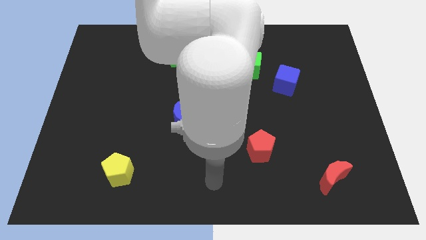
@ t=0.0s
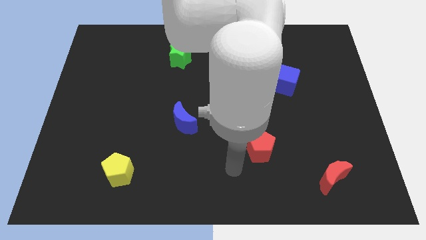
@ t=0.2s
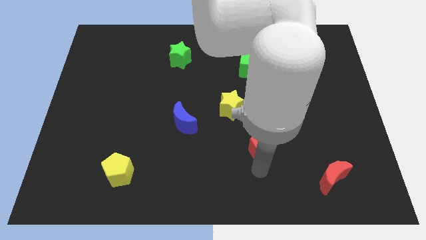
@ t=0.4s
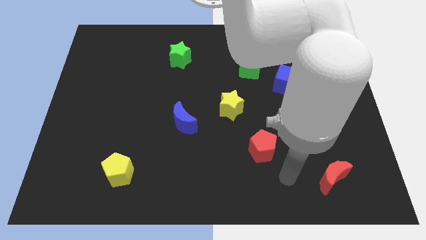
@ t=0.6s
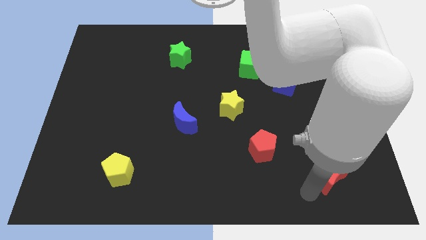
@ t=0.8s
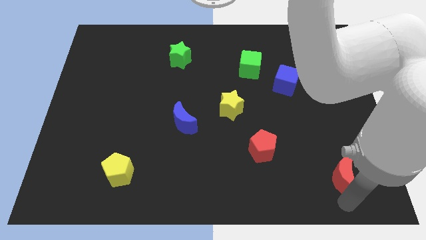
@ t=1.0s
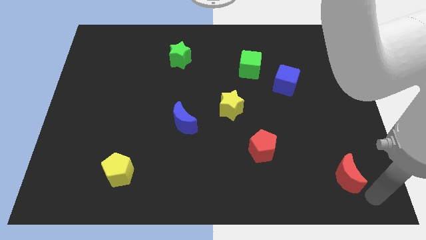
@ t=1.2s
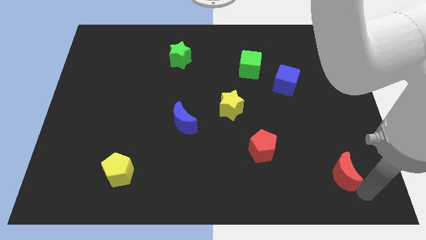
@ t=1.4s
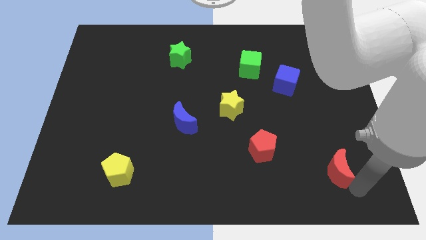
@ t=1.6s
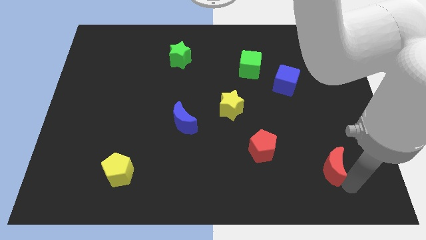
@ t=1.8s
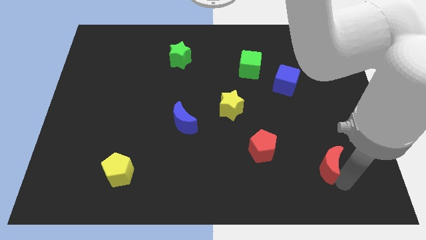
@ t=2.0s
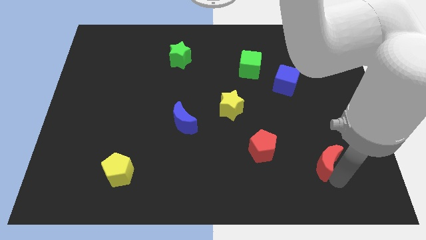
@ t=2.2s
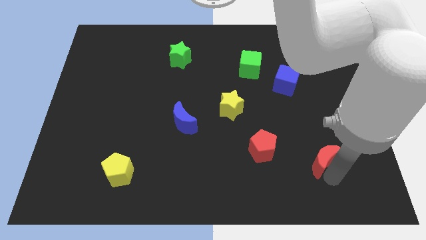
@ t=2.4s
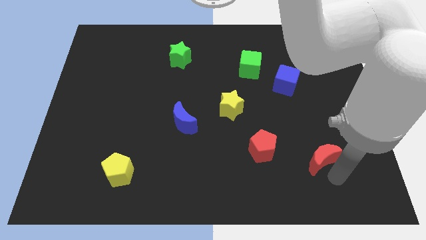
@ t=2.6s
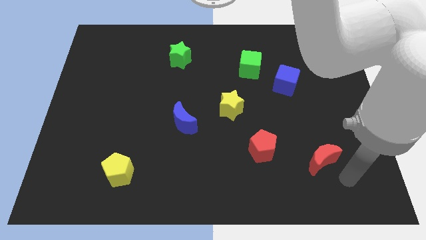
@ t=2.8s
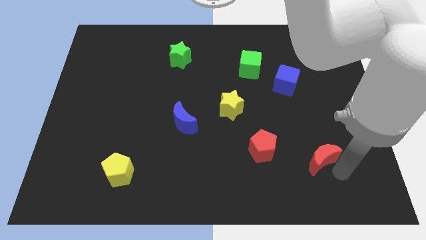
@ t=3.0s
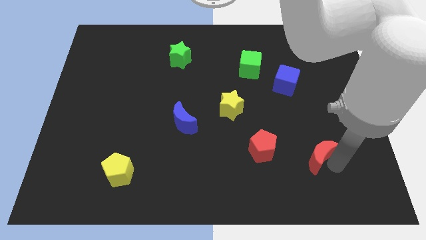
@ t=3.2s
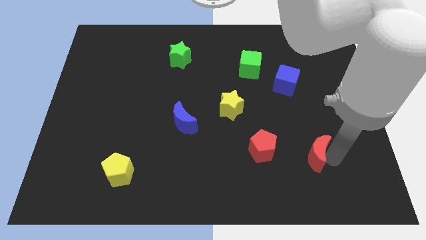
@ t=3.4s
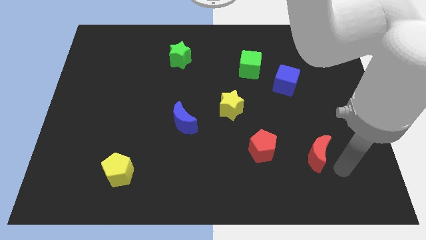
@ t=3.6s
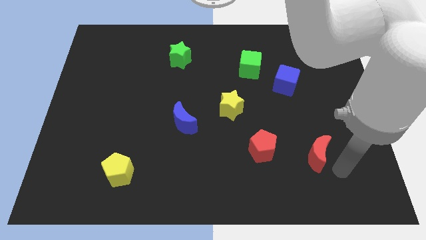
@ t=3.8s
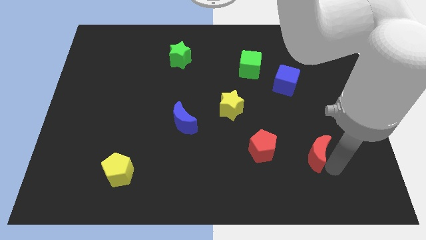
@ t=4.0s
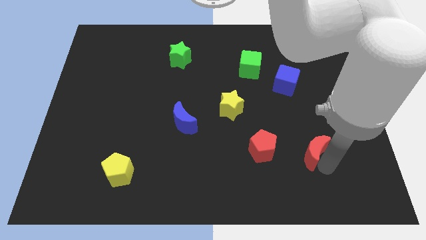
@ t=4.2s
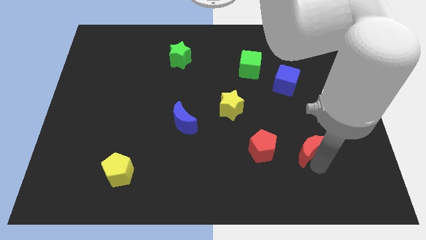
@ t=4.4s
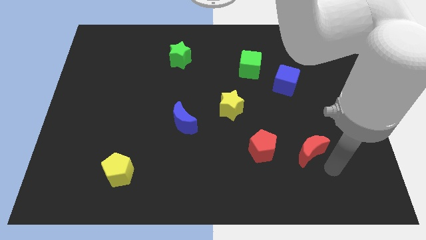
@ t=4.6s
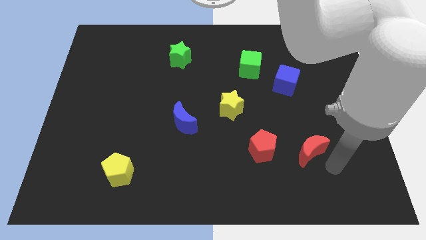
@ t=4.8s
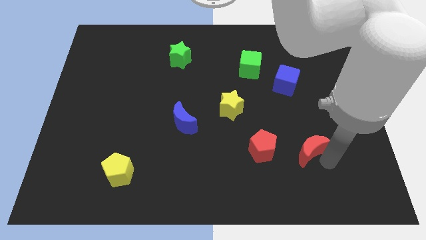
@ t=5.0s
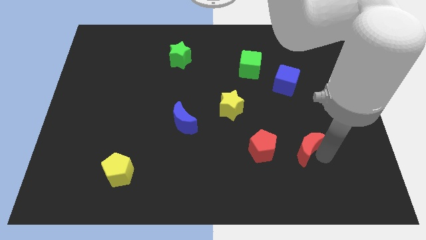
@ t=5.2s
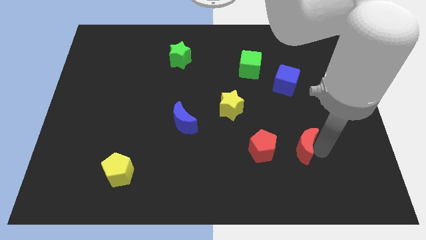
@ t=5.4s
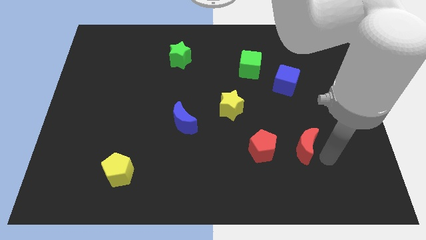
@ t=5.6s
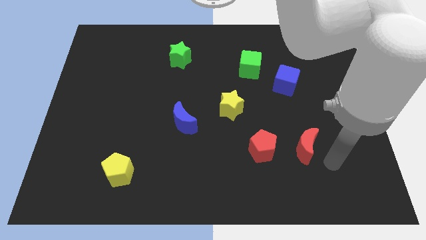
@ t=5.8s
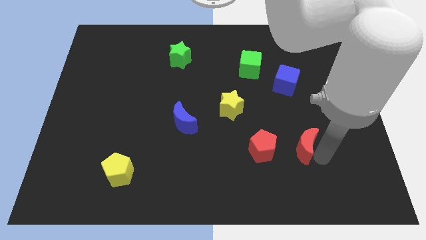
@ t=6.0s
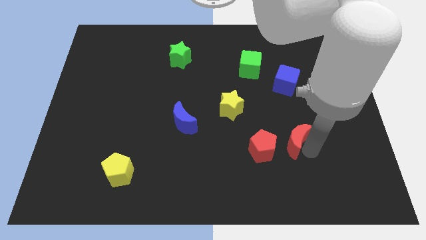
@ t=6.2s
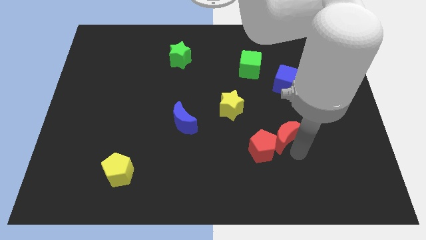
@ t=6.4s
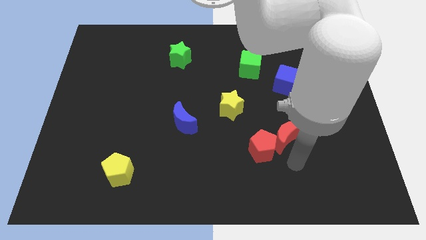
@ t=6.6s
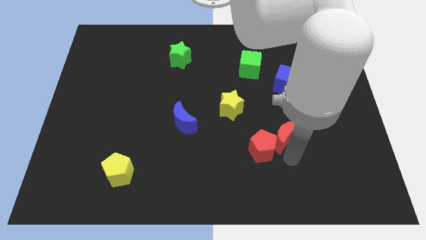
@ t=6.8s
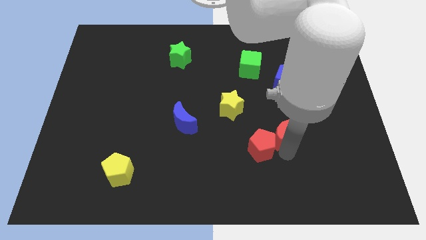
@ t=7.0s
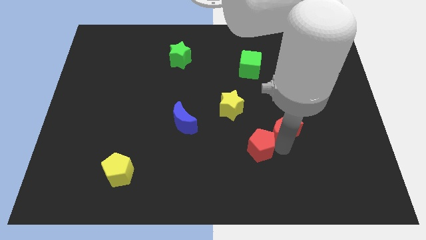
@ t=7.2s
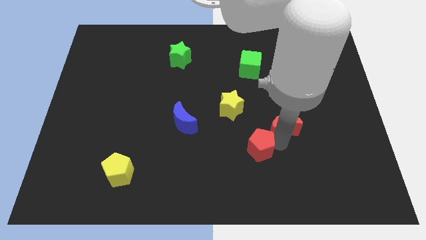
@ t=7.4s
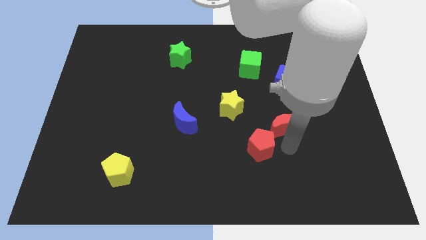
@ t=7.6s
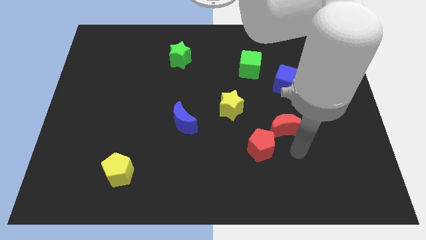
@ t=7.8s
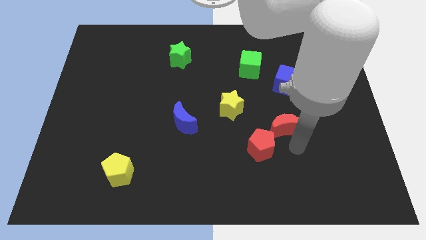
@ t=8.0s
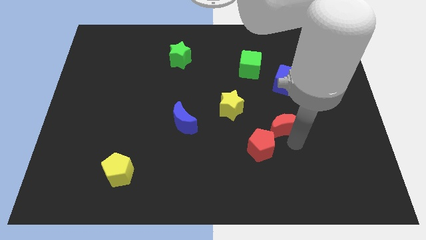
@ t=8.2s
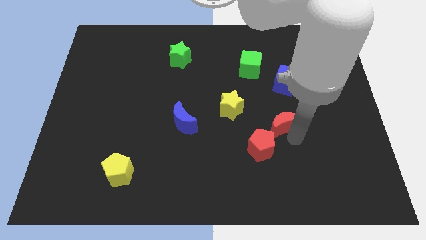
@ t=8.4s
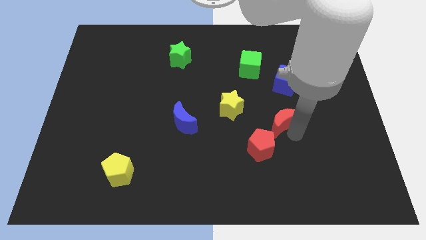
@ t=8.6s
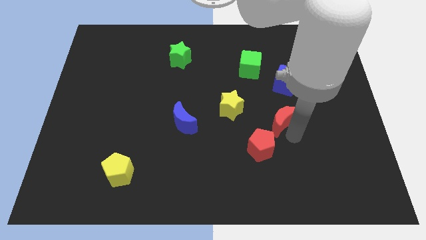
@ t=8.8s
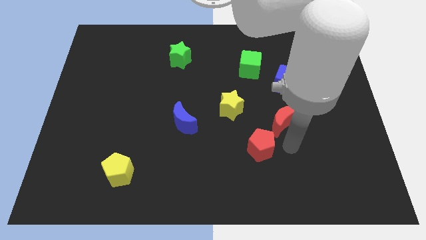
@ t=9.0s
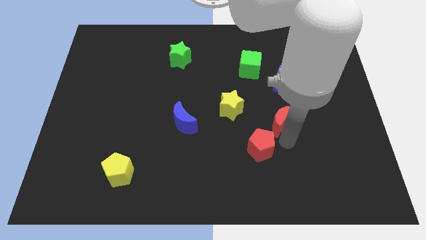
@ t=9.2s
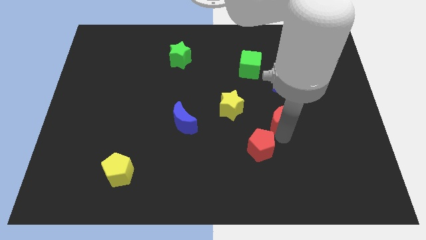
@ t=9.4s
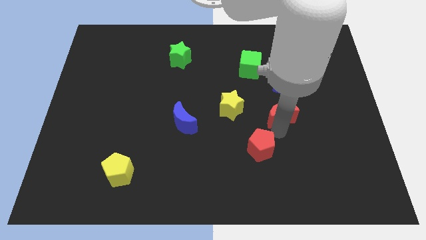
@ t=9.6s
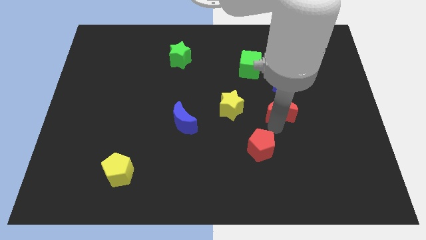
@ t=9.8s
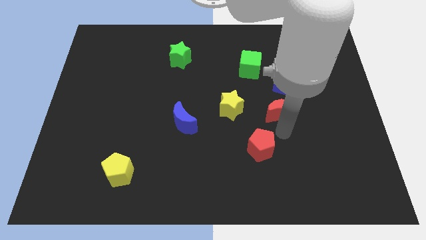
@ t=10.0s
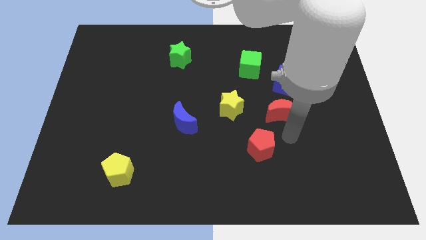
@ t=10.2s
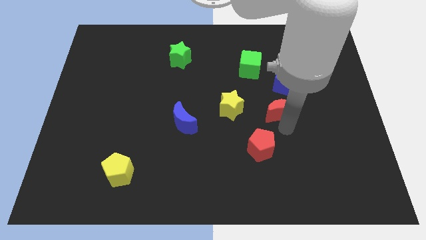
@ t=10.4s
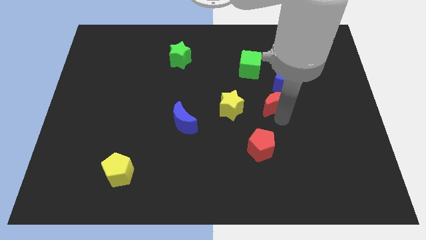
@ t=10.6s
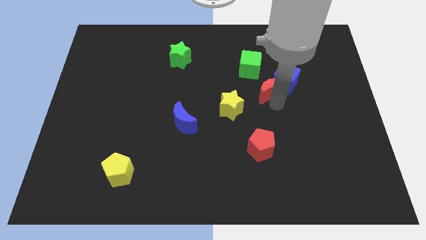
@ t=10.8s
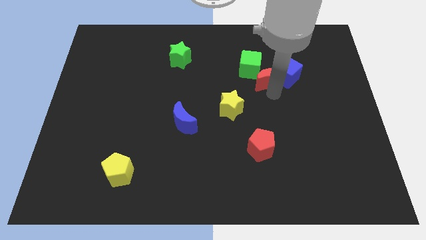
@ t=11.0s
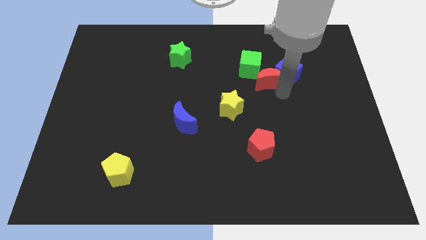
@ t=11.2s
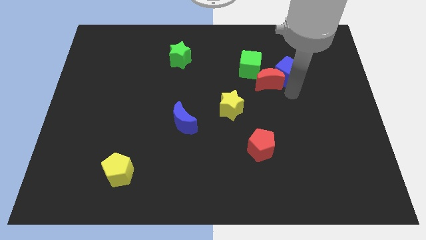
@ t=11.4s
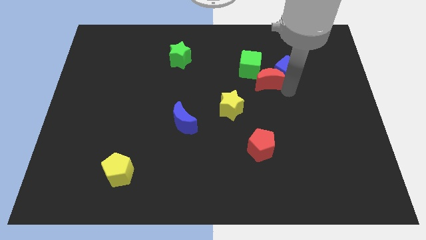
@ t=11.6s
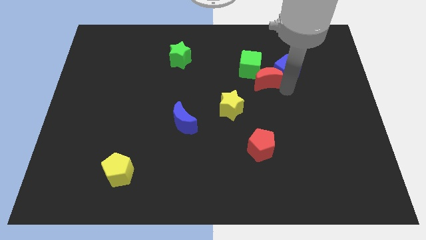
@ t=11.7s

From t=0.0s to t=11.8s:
push the red moon to the green cube

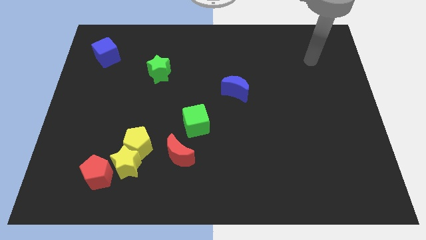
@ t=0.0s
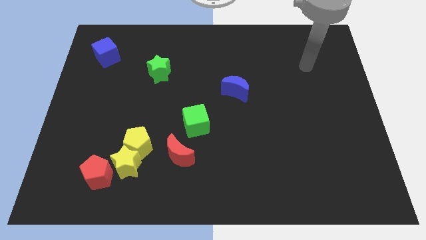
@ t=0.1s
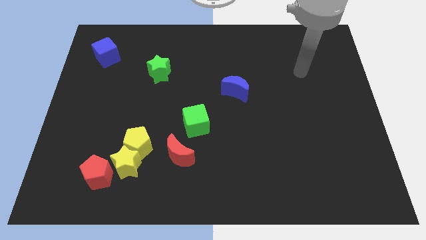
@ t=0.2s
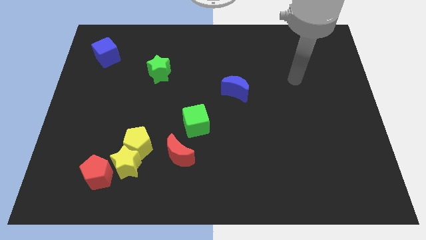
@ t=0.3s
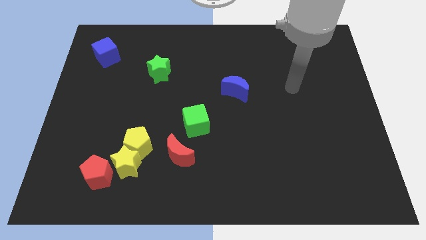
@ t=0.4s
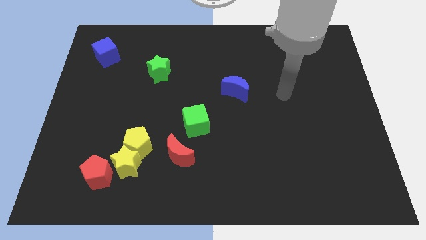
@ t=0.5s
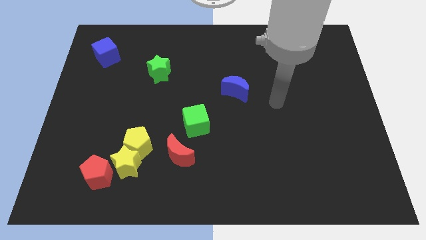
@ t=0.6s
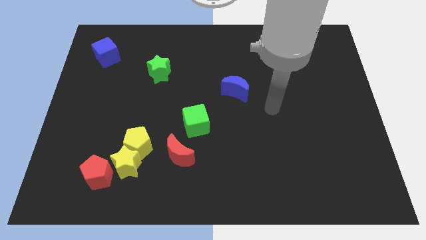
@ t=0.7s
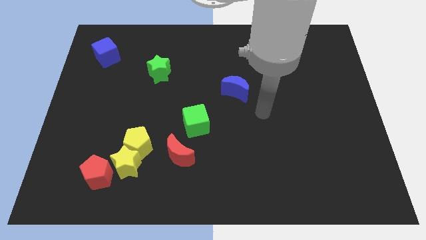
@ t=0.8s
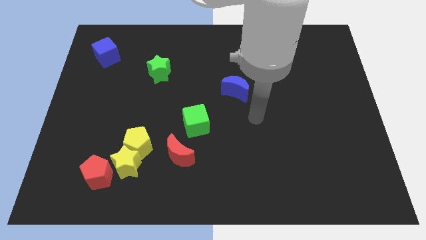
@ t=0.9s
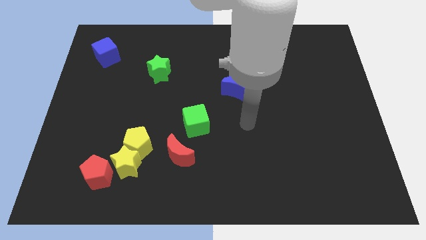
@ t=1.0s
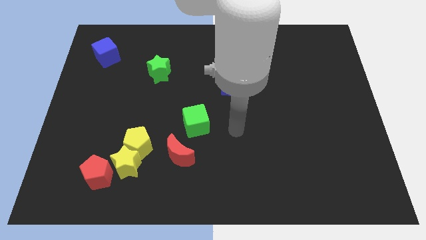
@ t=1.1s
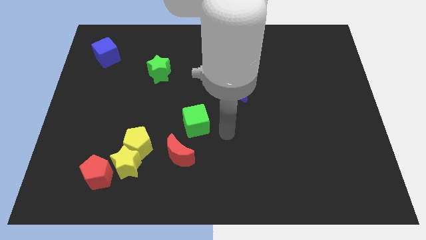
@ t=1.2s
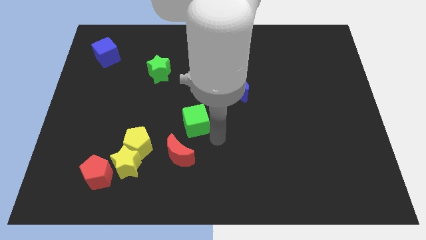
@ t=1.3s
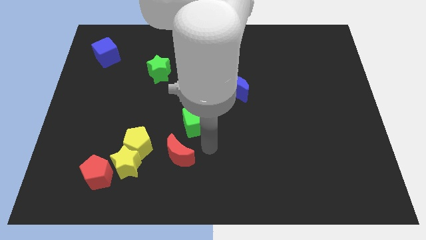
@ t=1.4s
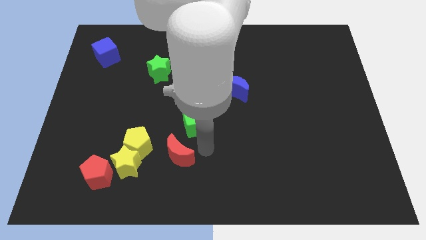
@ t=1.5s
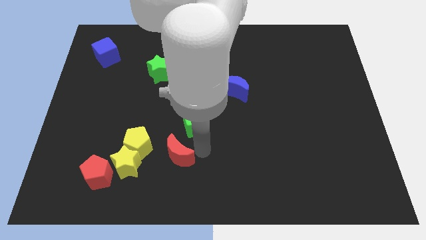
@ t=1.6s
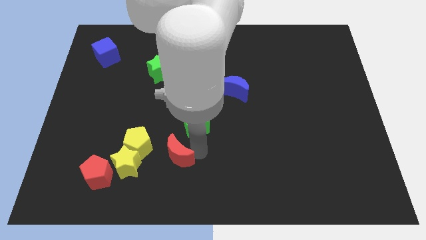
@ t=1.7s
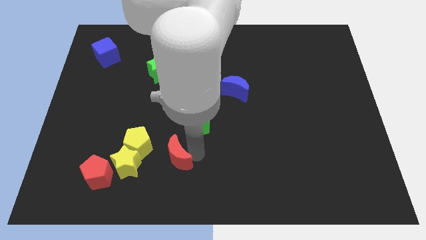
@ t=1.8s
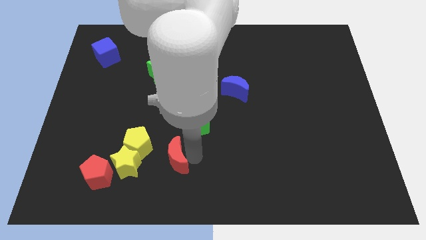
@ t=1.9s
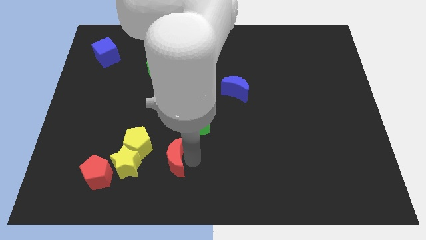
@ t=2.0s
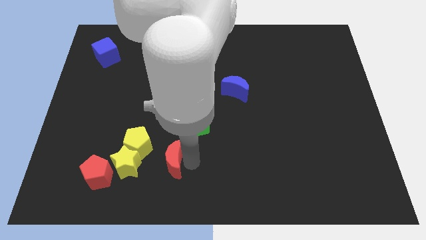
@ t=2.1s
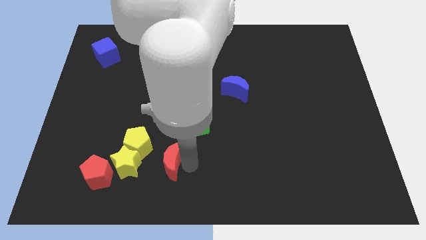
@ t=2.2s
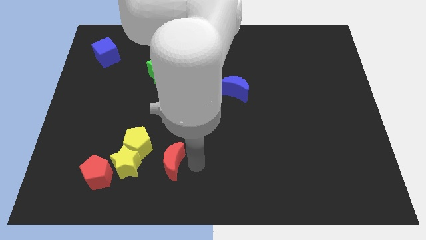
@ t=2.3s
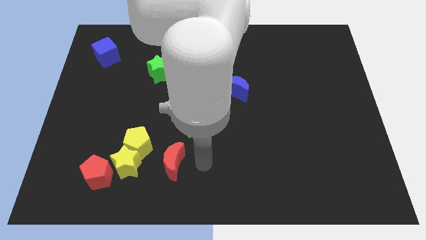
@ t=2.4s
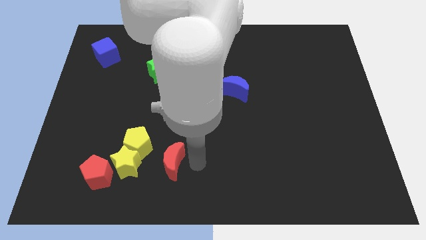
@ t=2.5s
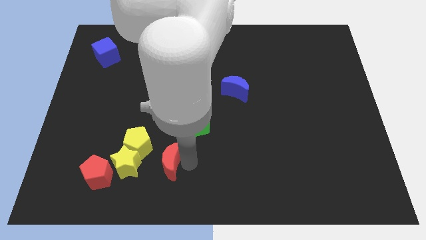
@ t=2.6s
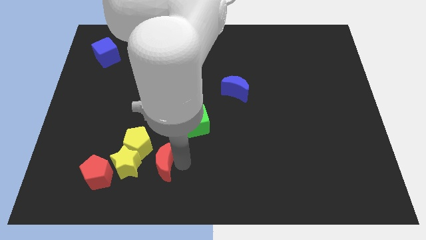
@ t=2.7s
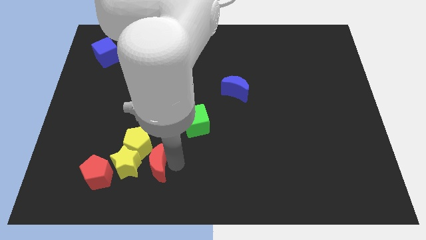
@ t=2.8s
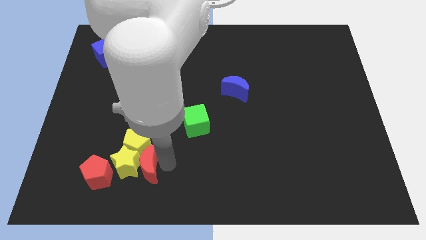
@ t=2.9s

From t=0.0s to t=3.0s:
slide the red moon next to the yellow star
